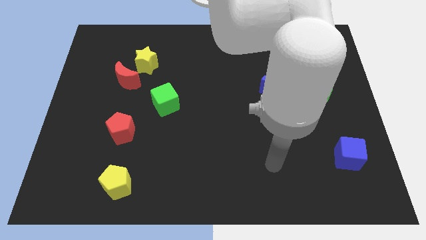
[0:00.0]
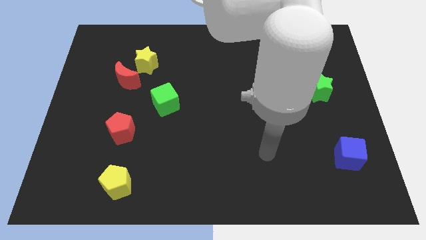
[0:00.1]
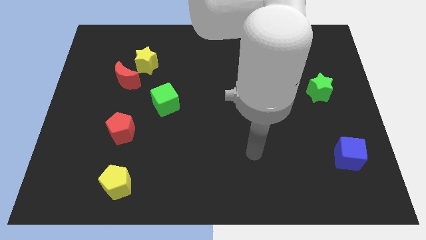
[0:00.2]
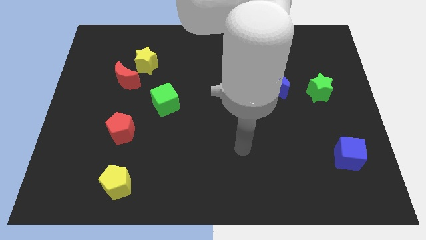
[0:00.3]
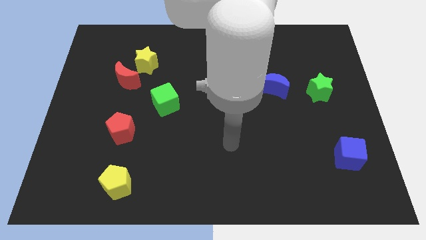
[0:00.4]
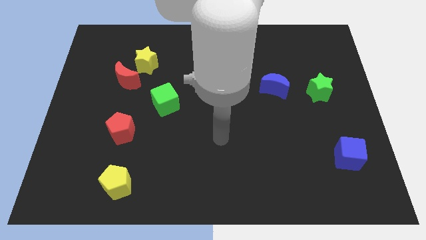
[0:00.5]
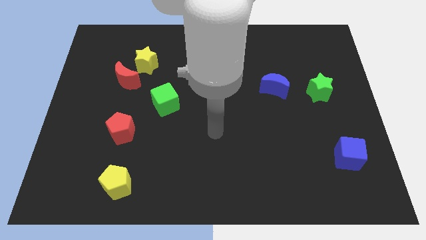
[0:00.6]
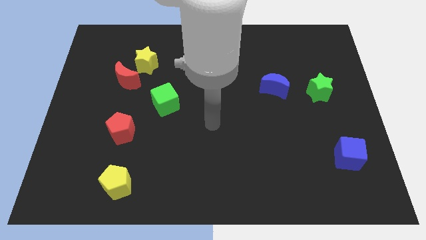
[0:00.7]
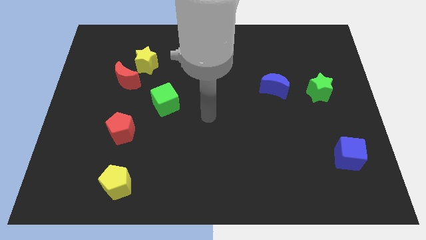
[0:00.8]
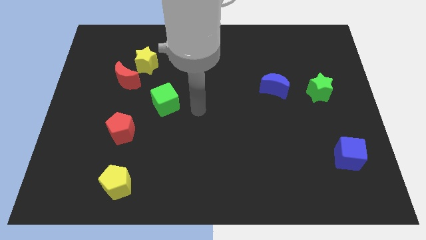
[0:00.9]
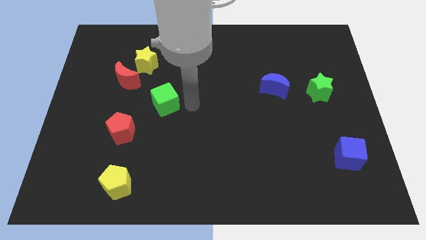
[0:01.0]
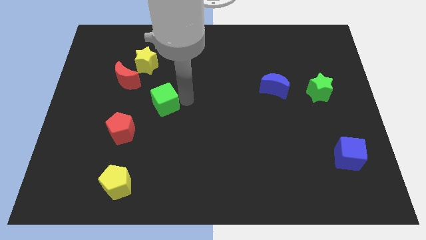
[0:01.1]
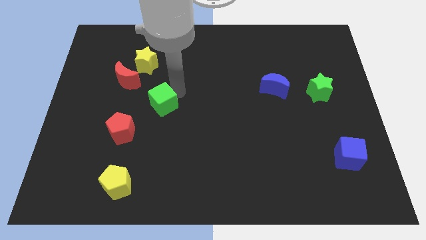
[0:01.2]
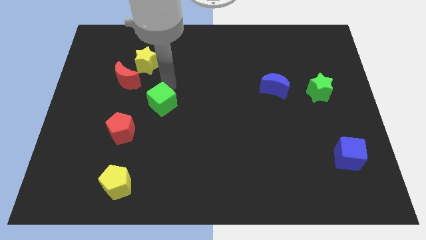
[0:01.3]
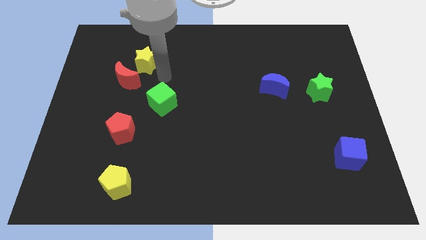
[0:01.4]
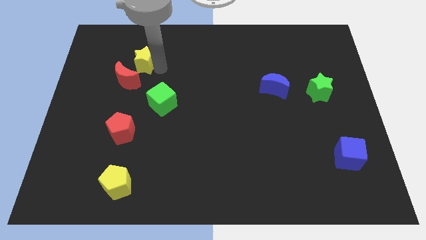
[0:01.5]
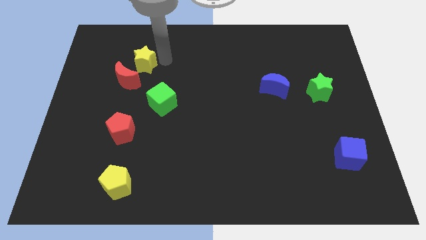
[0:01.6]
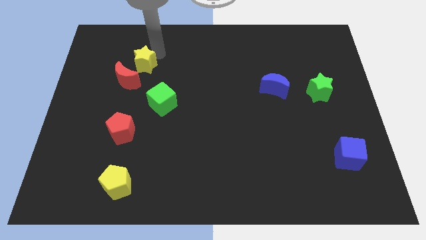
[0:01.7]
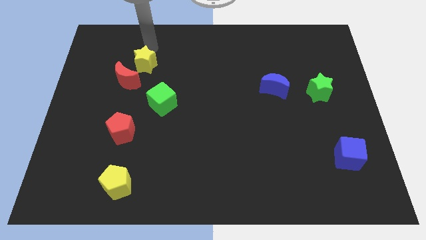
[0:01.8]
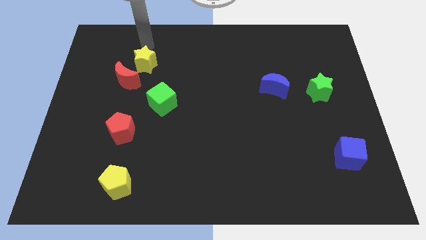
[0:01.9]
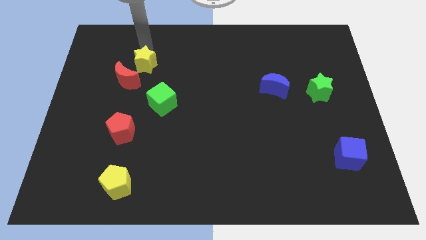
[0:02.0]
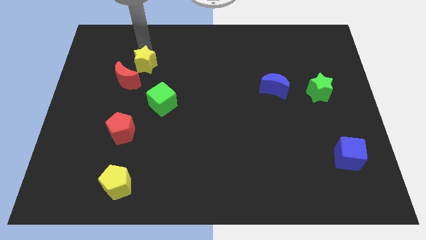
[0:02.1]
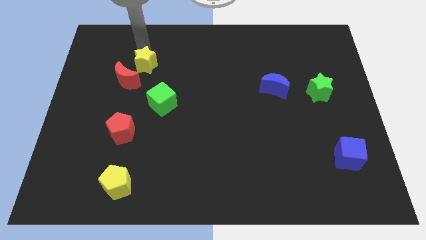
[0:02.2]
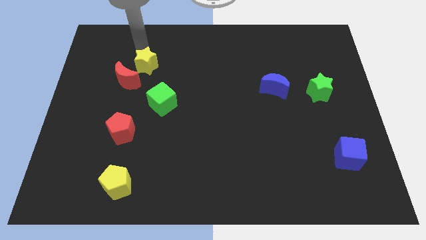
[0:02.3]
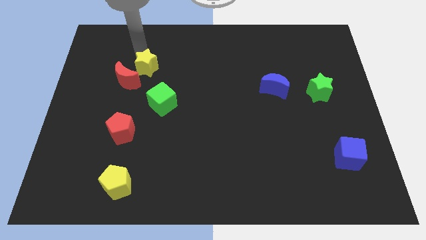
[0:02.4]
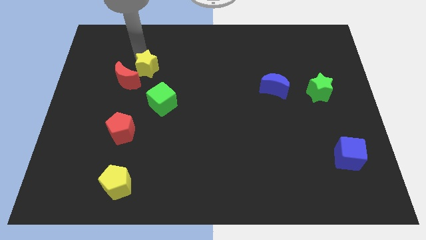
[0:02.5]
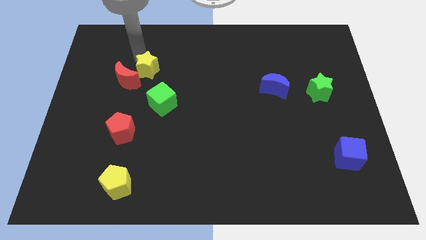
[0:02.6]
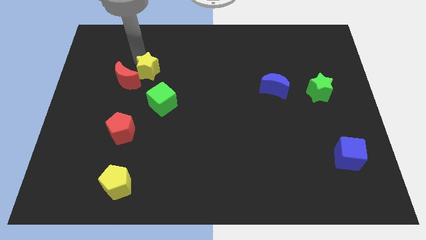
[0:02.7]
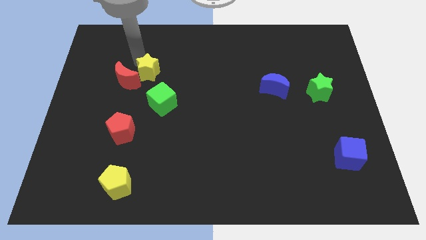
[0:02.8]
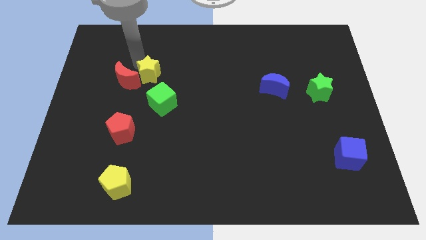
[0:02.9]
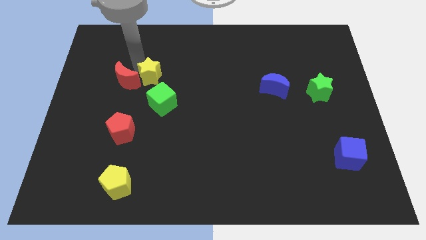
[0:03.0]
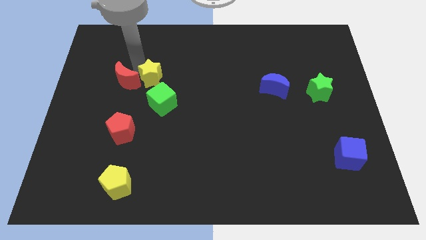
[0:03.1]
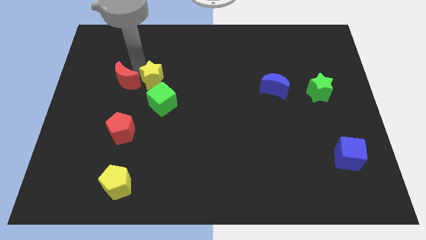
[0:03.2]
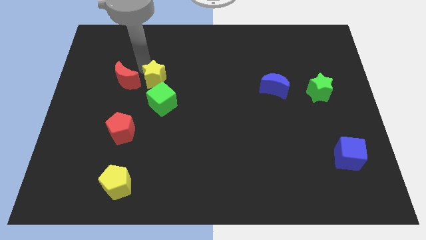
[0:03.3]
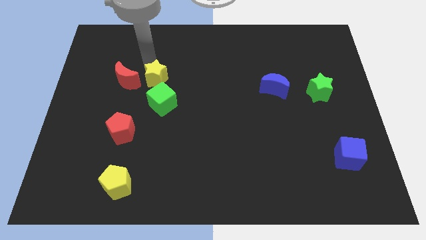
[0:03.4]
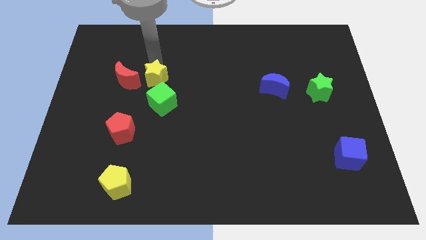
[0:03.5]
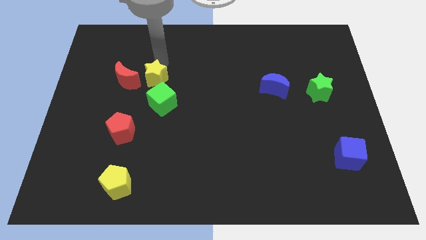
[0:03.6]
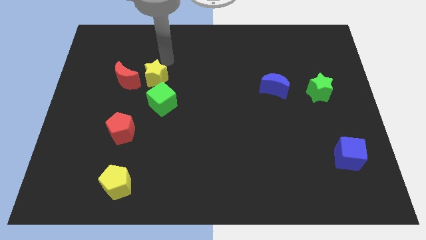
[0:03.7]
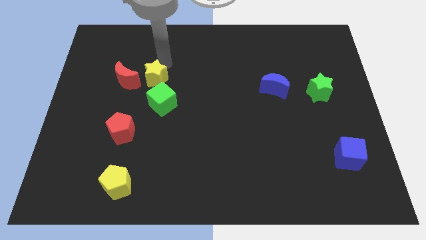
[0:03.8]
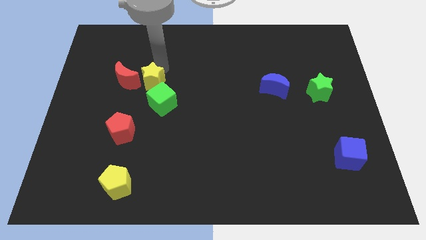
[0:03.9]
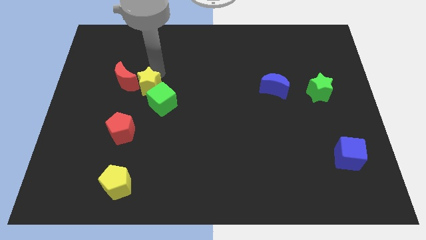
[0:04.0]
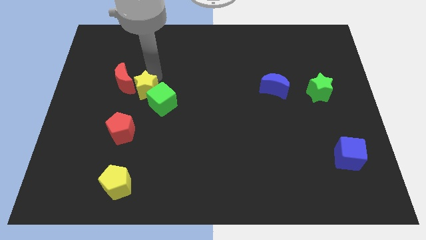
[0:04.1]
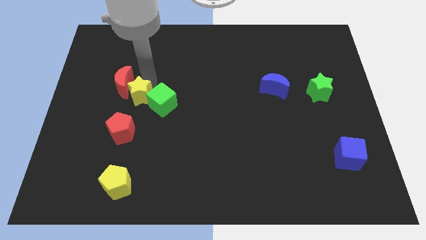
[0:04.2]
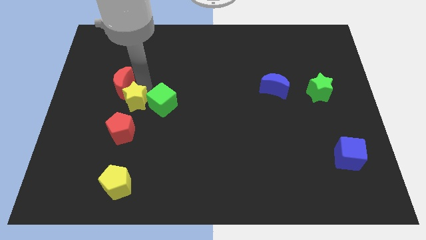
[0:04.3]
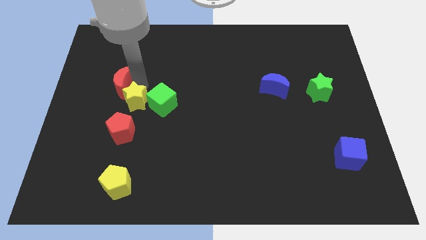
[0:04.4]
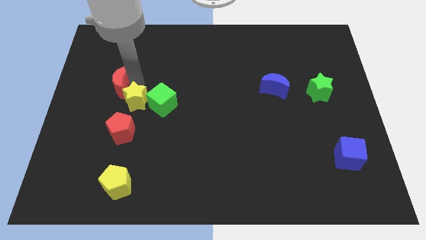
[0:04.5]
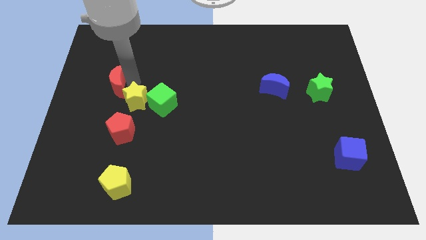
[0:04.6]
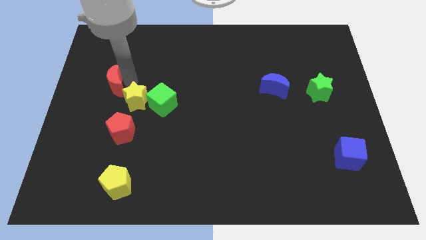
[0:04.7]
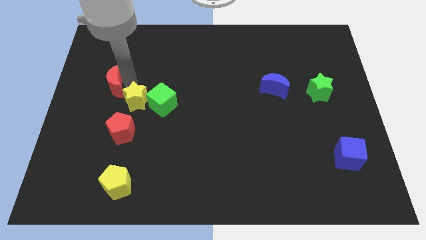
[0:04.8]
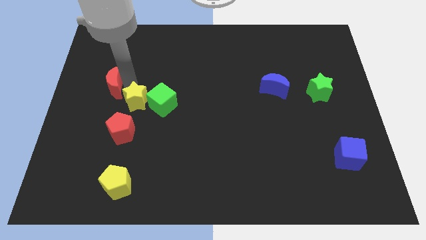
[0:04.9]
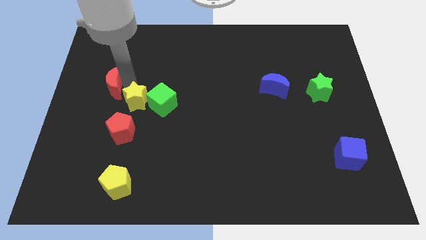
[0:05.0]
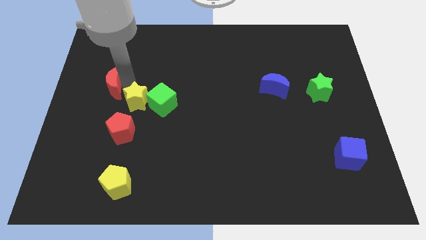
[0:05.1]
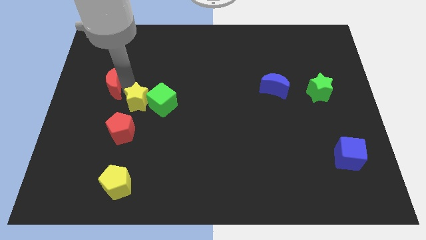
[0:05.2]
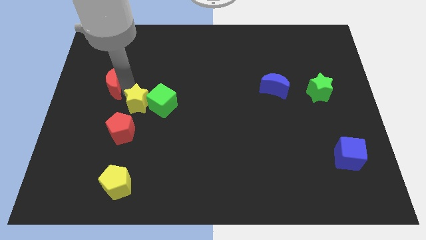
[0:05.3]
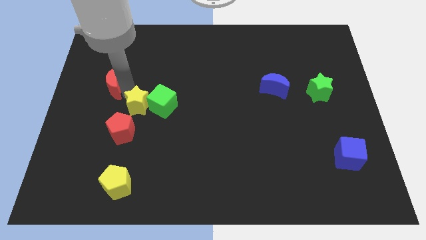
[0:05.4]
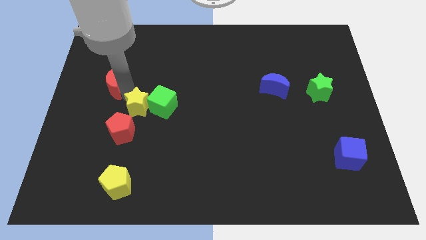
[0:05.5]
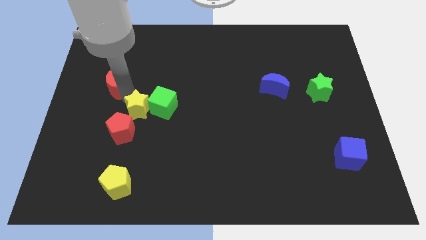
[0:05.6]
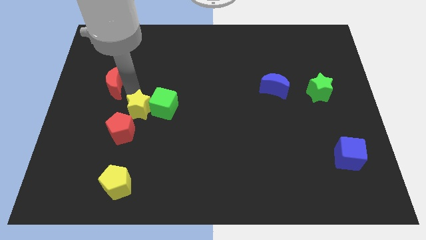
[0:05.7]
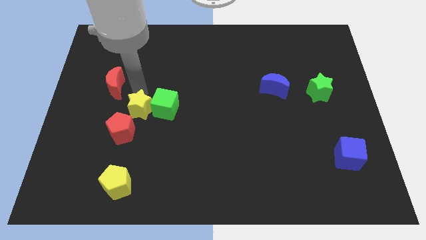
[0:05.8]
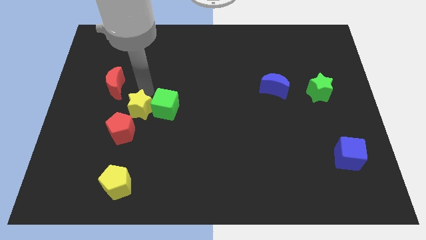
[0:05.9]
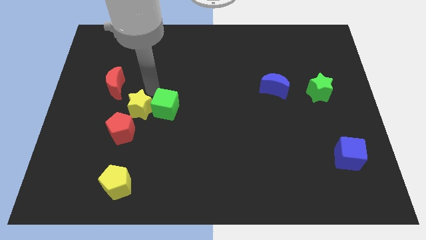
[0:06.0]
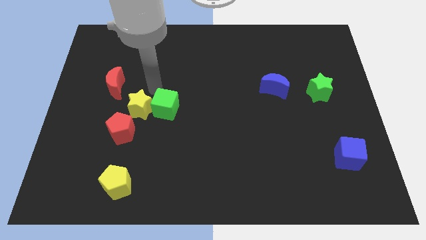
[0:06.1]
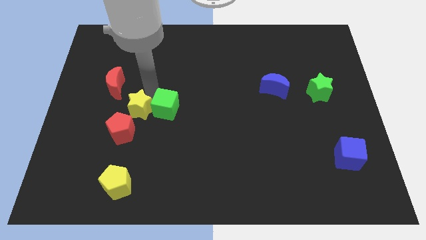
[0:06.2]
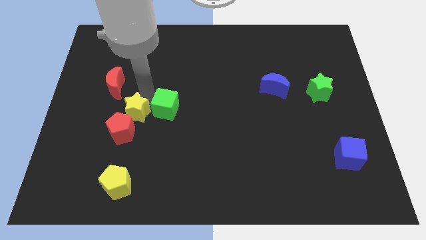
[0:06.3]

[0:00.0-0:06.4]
move the yellow star towards the red pentagon

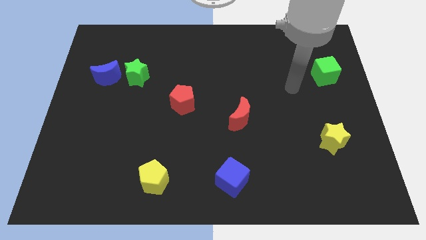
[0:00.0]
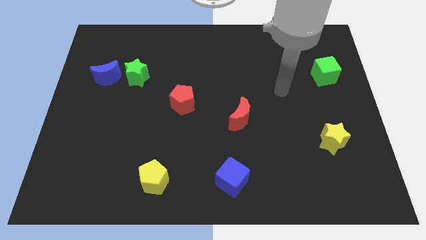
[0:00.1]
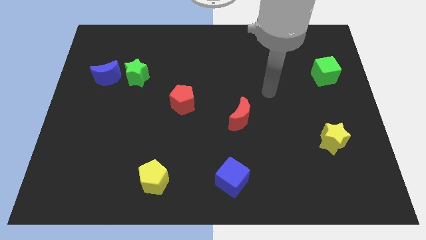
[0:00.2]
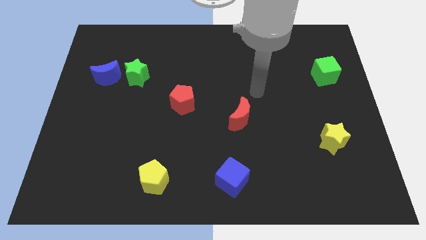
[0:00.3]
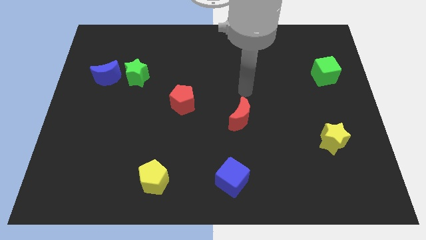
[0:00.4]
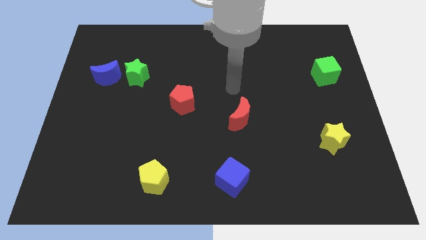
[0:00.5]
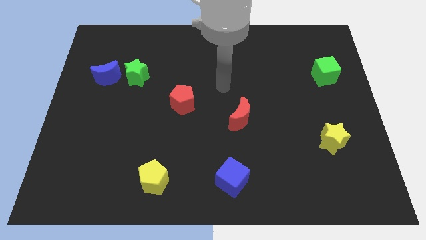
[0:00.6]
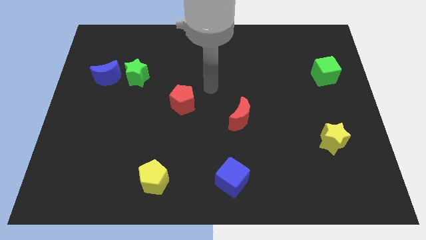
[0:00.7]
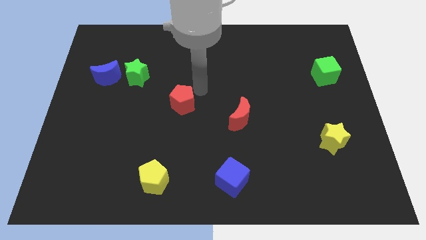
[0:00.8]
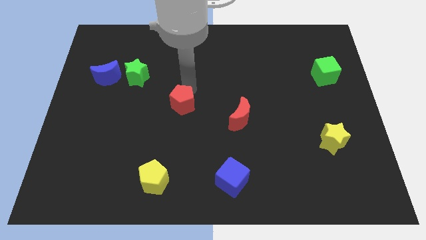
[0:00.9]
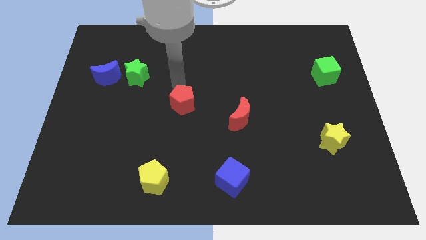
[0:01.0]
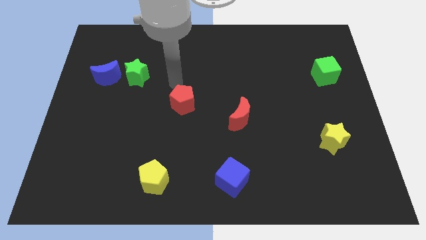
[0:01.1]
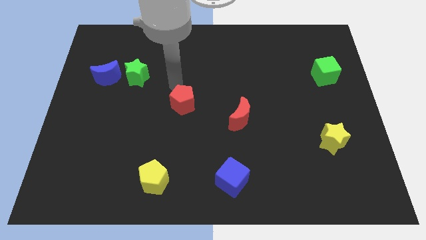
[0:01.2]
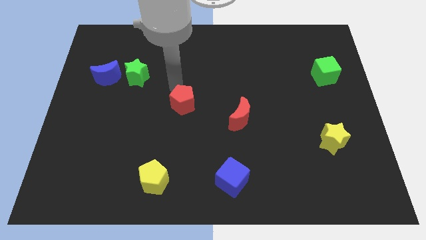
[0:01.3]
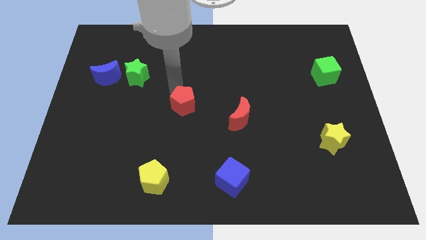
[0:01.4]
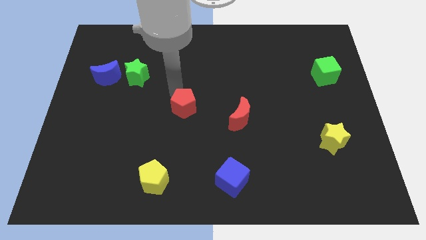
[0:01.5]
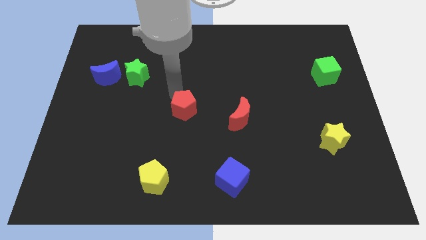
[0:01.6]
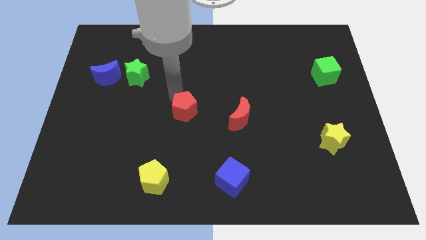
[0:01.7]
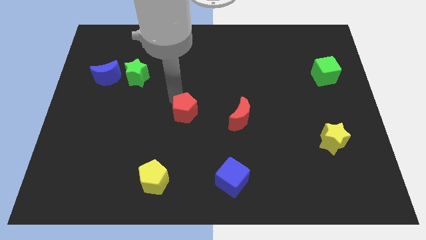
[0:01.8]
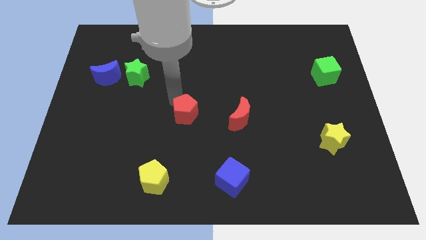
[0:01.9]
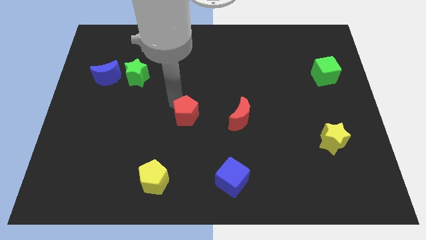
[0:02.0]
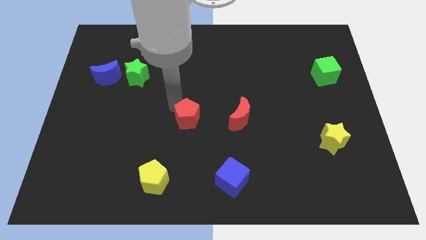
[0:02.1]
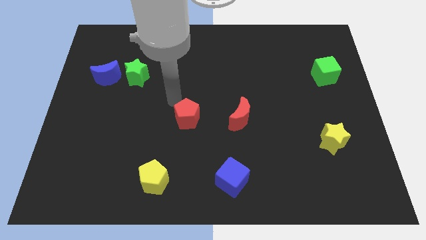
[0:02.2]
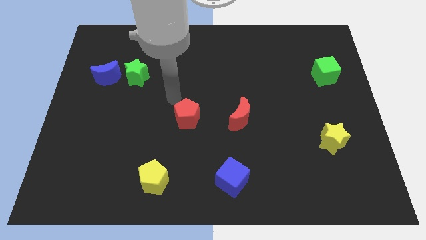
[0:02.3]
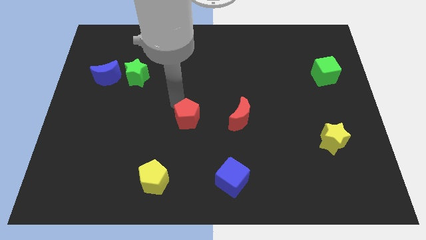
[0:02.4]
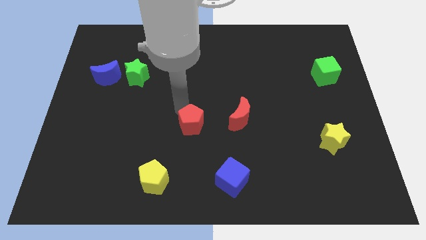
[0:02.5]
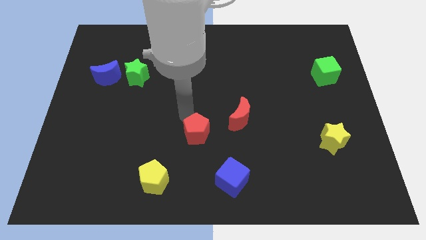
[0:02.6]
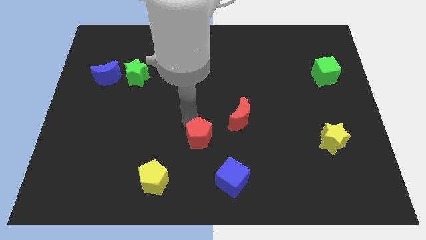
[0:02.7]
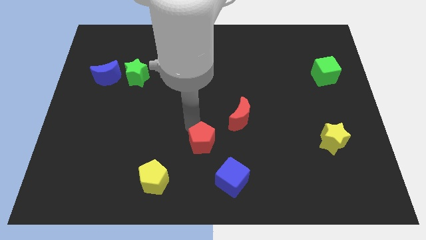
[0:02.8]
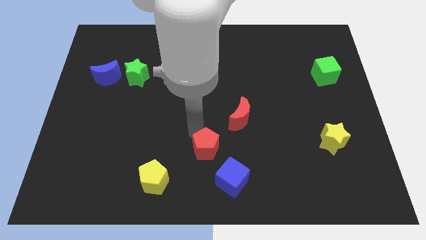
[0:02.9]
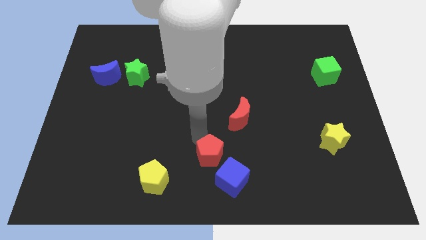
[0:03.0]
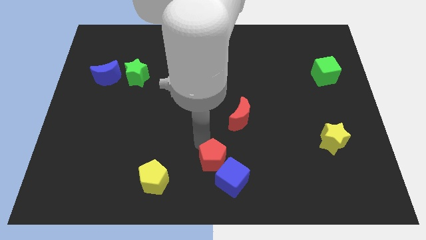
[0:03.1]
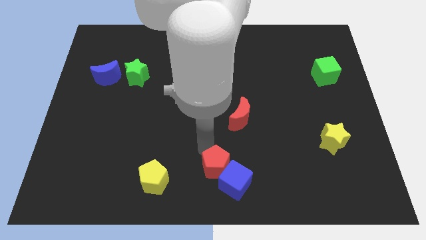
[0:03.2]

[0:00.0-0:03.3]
slide the red pentagon next to the blue cube
